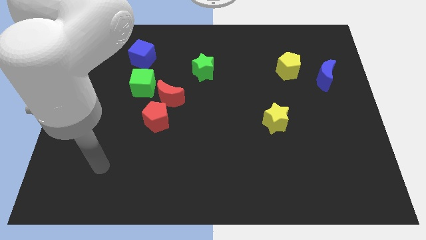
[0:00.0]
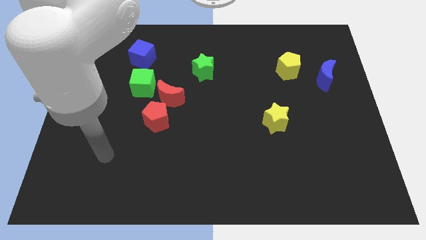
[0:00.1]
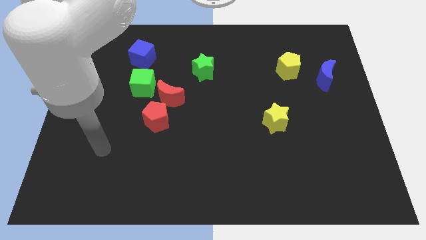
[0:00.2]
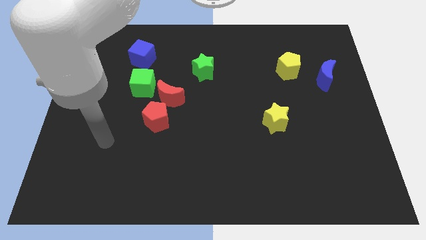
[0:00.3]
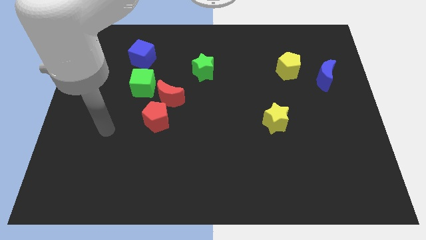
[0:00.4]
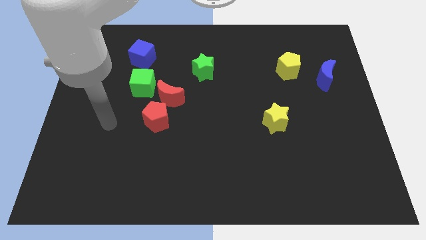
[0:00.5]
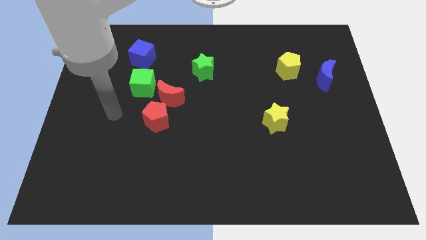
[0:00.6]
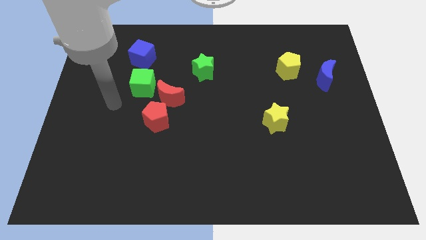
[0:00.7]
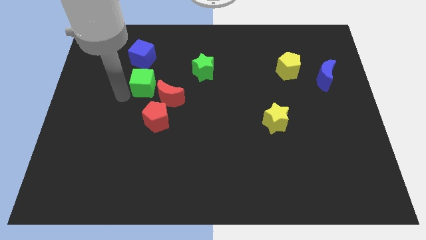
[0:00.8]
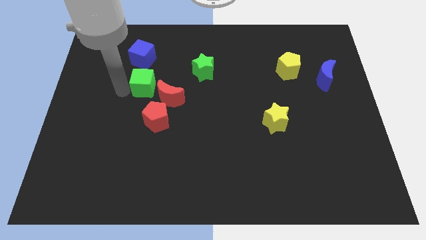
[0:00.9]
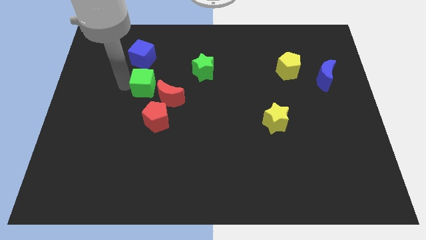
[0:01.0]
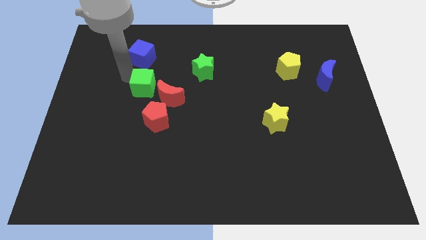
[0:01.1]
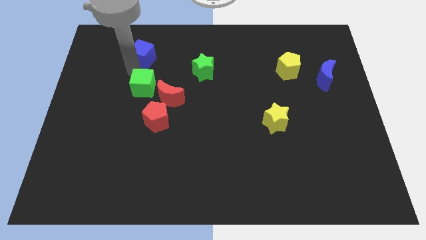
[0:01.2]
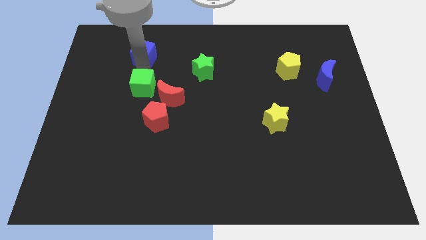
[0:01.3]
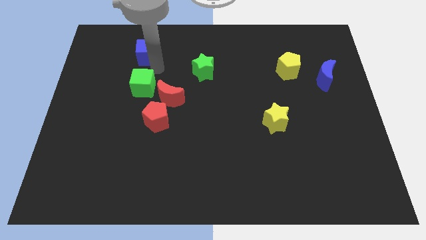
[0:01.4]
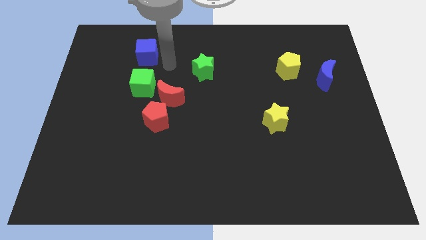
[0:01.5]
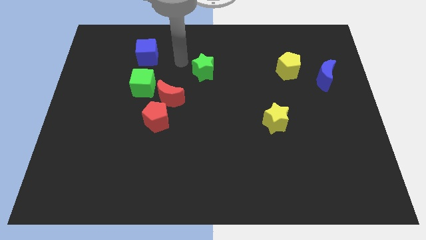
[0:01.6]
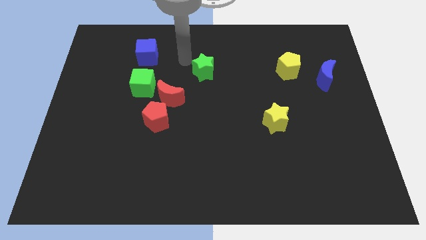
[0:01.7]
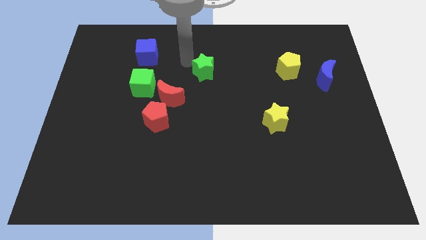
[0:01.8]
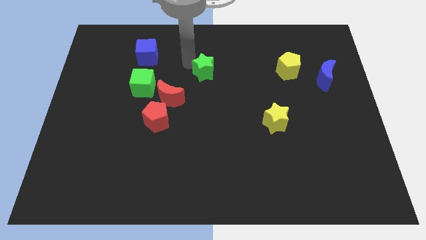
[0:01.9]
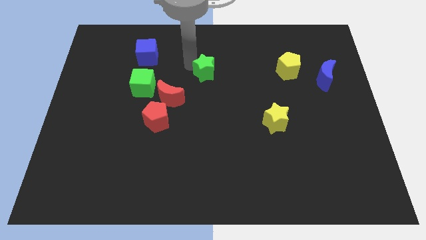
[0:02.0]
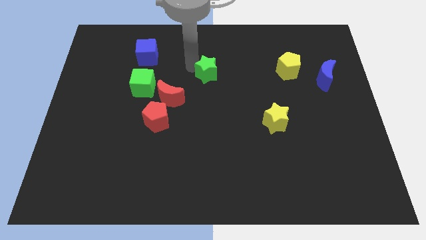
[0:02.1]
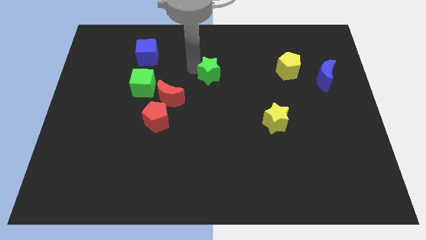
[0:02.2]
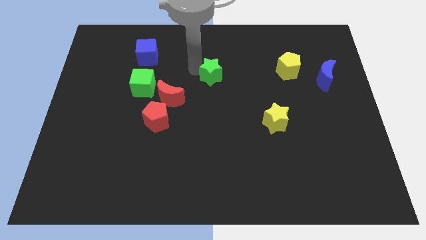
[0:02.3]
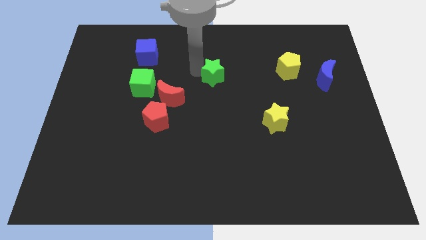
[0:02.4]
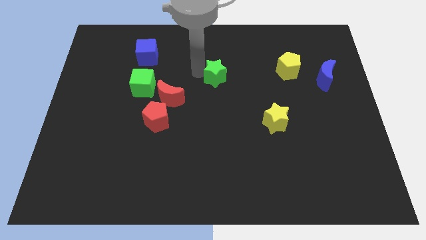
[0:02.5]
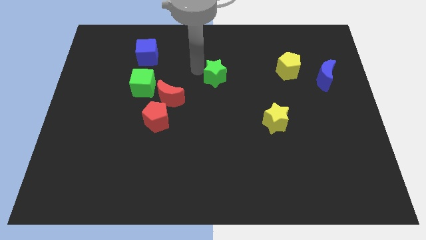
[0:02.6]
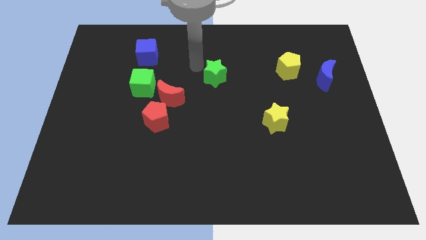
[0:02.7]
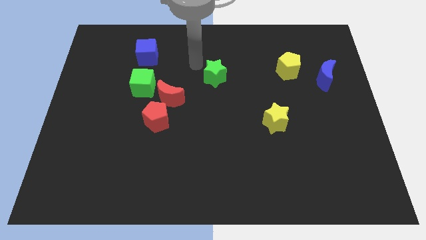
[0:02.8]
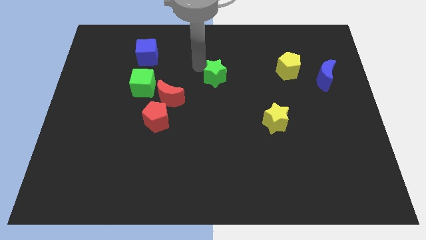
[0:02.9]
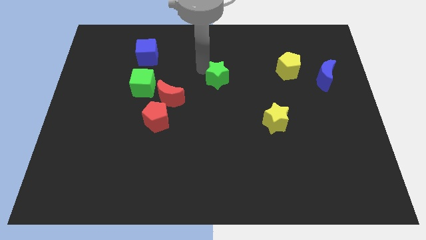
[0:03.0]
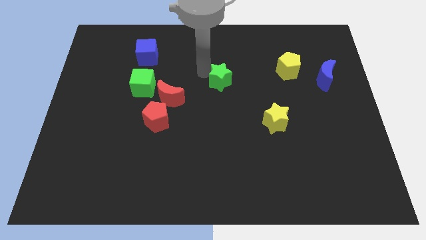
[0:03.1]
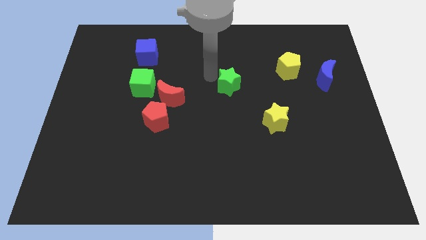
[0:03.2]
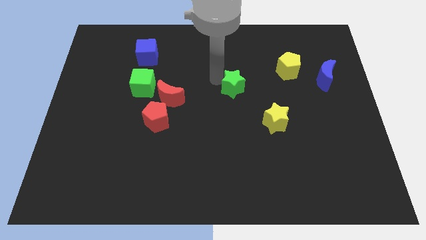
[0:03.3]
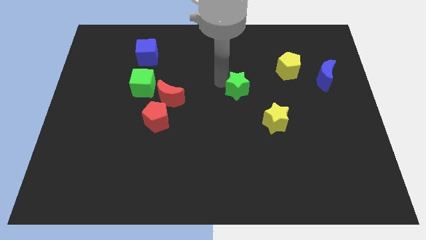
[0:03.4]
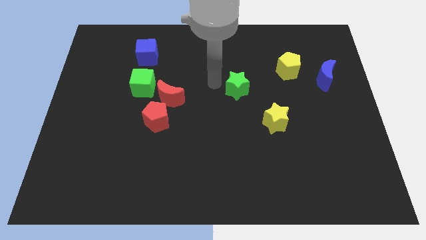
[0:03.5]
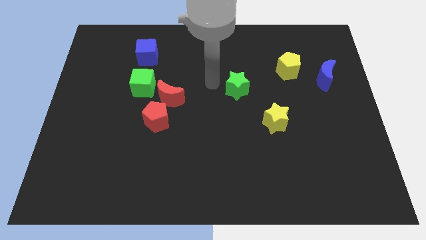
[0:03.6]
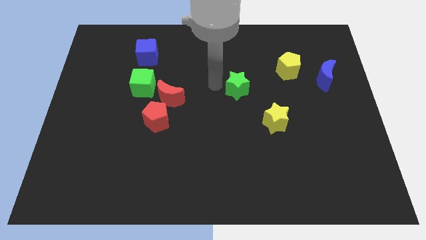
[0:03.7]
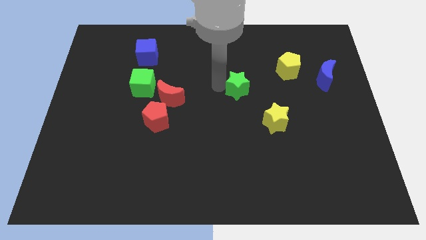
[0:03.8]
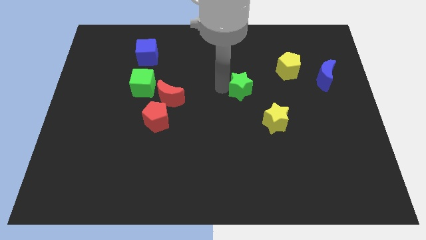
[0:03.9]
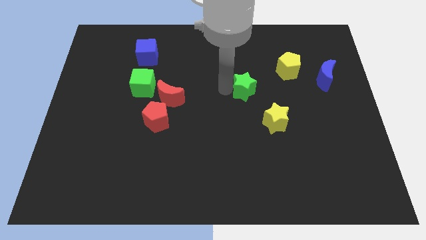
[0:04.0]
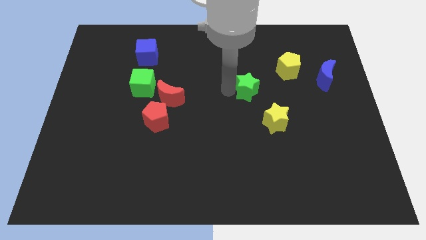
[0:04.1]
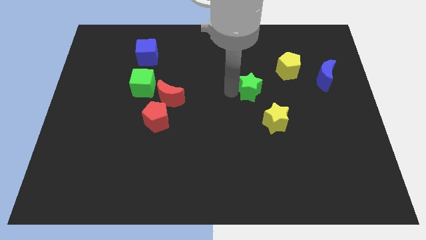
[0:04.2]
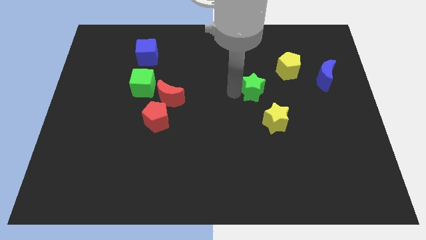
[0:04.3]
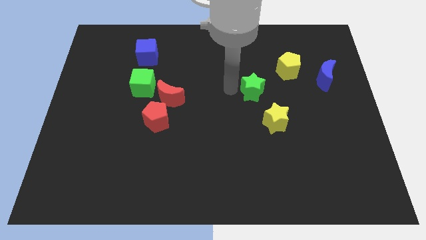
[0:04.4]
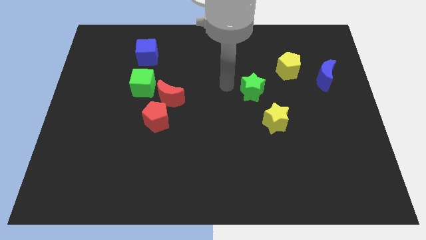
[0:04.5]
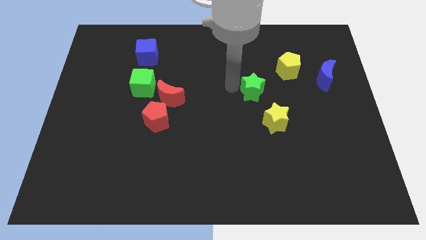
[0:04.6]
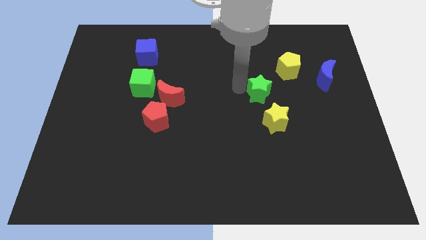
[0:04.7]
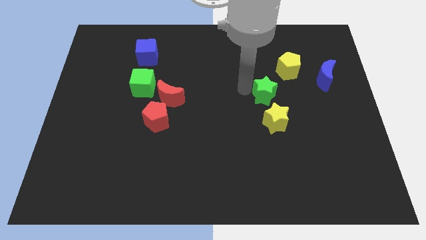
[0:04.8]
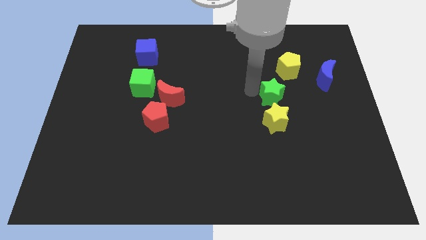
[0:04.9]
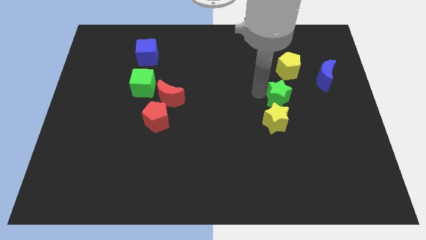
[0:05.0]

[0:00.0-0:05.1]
move the green star below the yellow pentagon

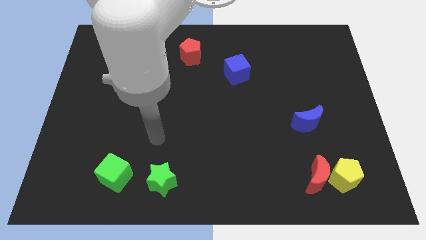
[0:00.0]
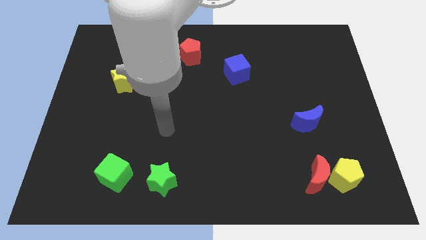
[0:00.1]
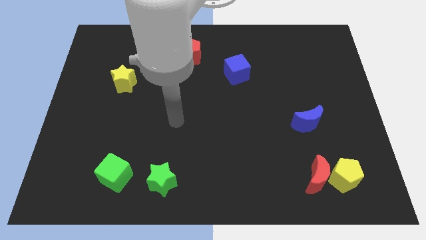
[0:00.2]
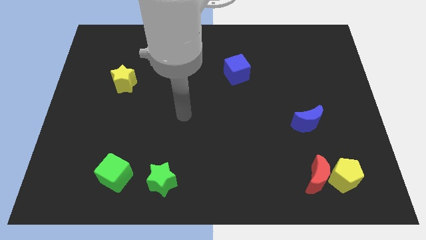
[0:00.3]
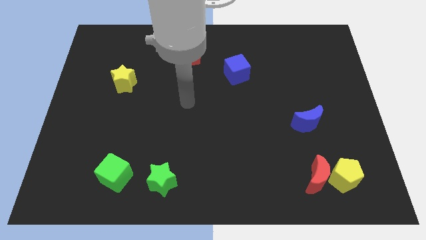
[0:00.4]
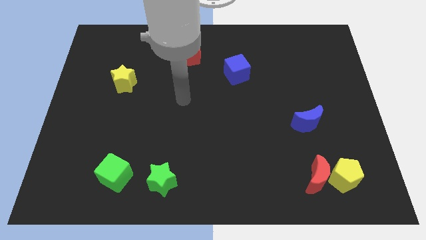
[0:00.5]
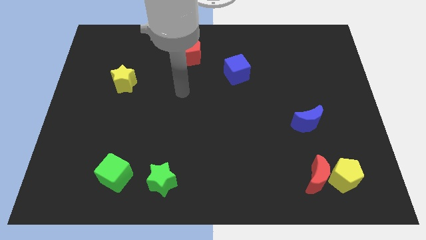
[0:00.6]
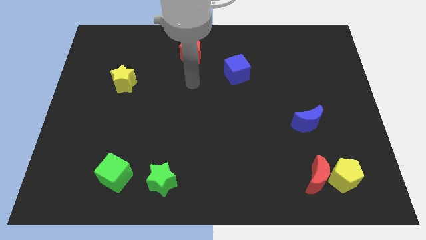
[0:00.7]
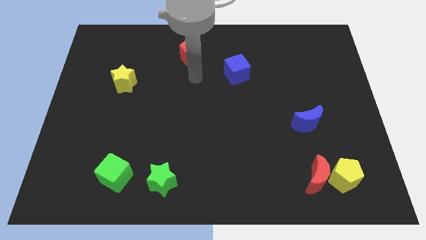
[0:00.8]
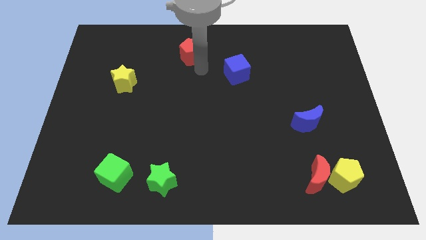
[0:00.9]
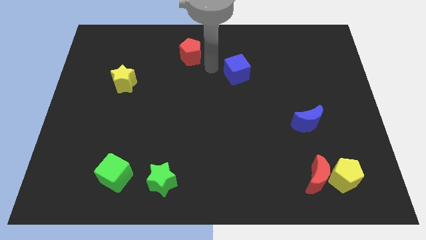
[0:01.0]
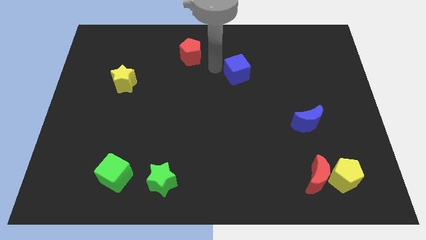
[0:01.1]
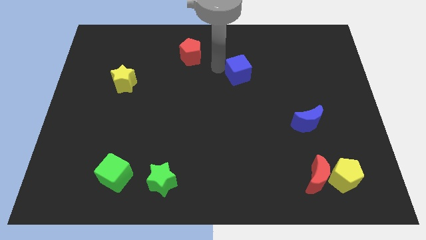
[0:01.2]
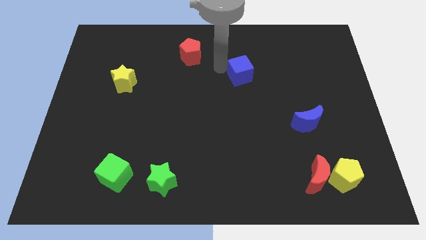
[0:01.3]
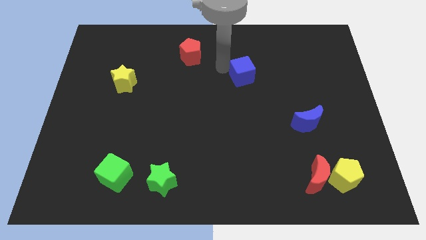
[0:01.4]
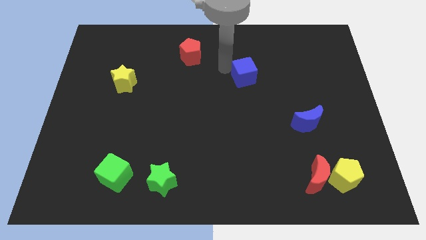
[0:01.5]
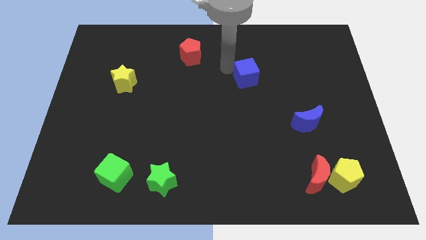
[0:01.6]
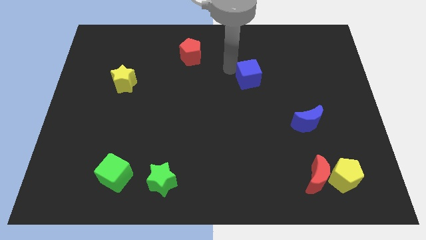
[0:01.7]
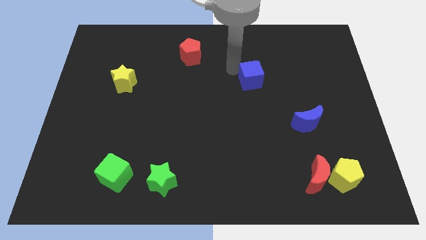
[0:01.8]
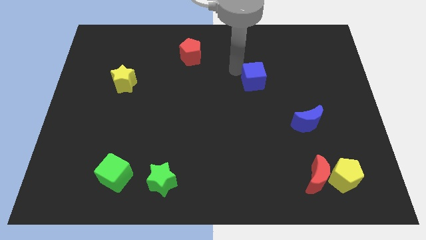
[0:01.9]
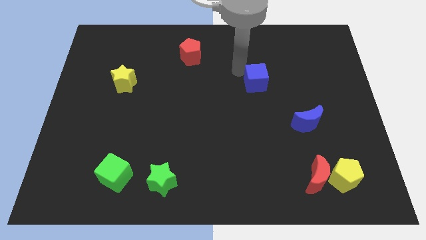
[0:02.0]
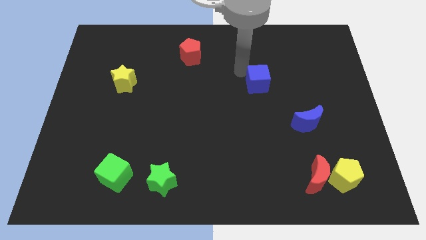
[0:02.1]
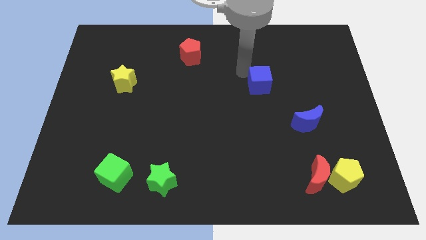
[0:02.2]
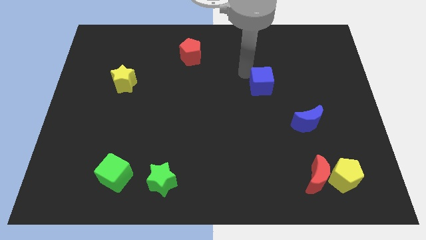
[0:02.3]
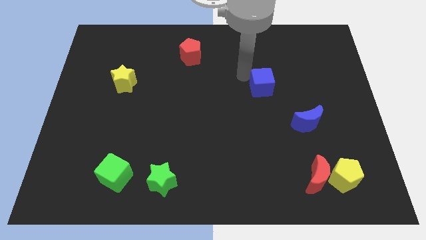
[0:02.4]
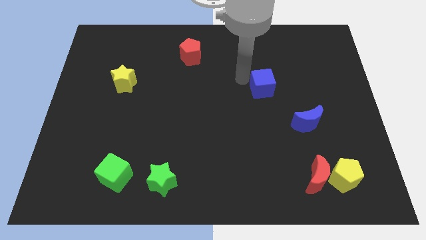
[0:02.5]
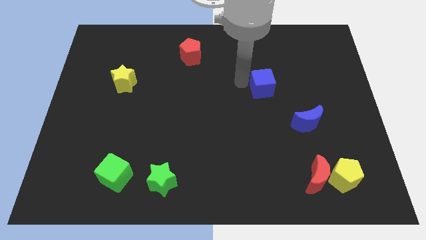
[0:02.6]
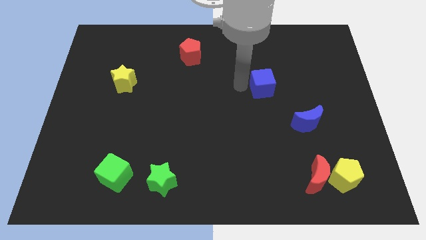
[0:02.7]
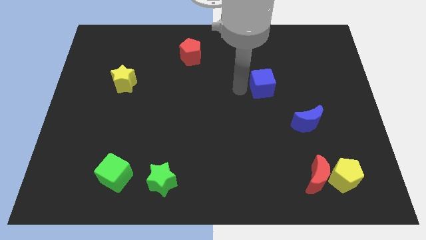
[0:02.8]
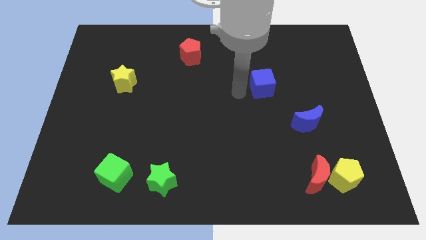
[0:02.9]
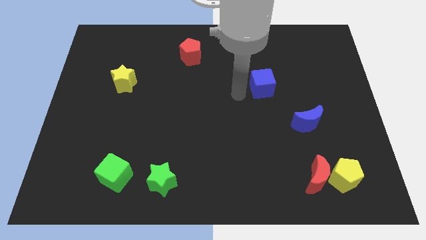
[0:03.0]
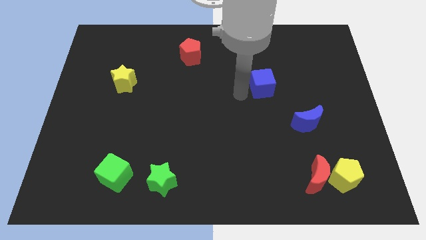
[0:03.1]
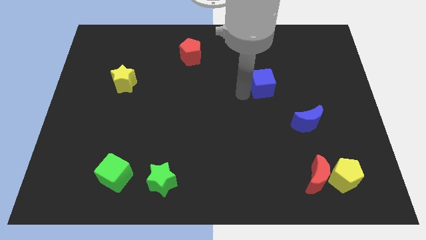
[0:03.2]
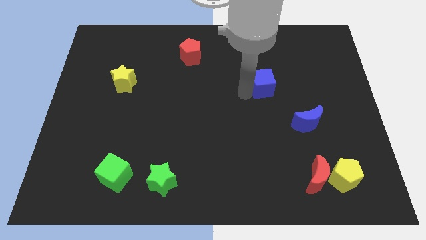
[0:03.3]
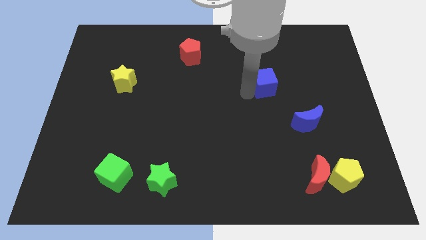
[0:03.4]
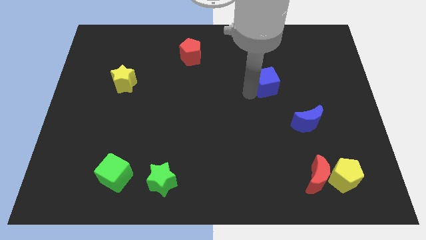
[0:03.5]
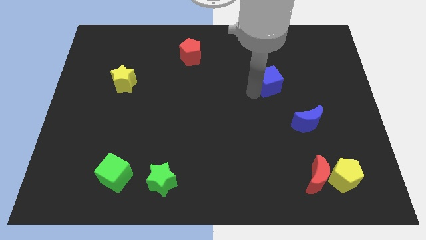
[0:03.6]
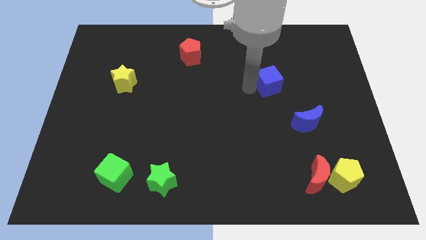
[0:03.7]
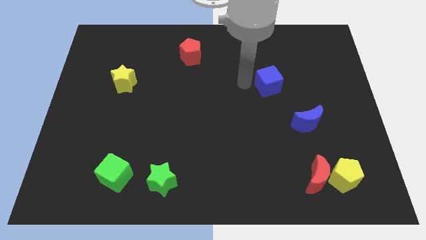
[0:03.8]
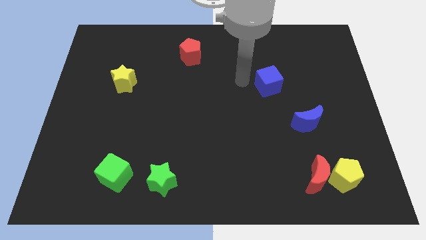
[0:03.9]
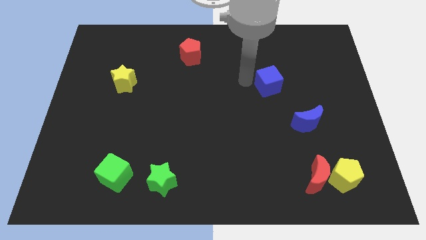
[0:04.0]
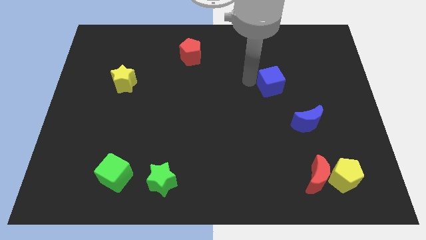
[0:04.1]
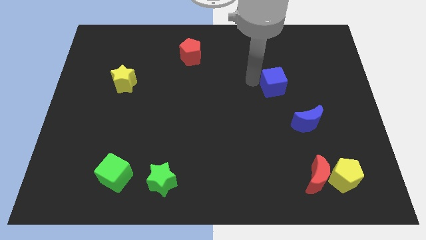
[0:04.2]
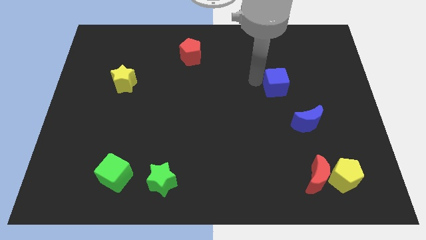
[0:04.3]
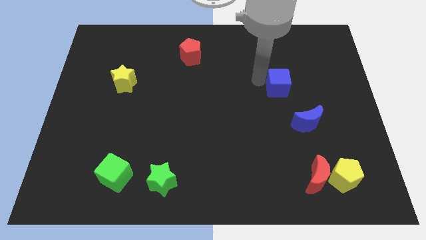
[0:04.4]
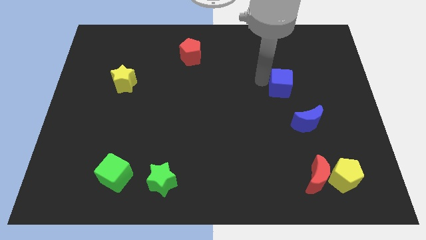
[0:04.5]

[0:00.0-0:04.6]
put the blue cube above the blue moon
